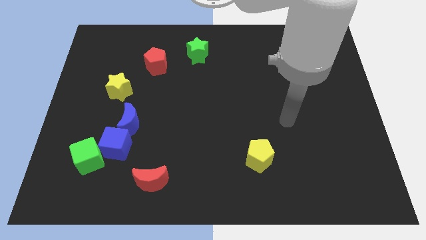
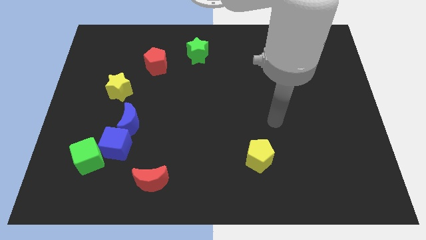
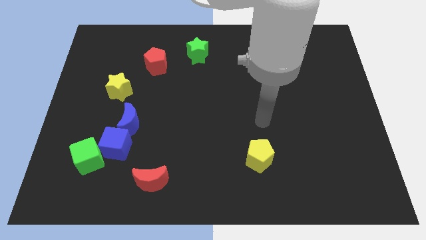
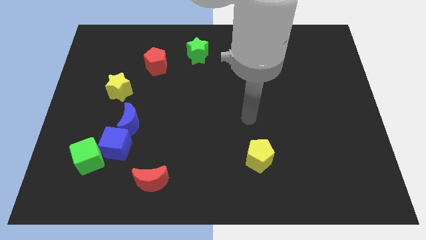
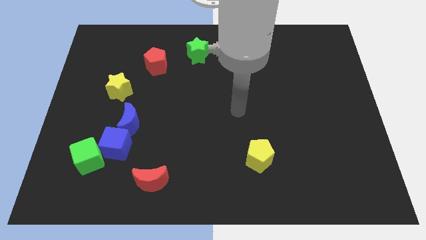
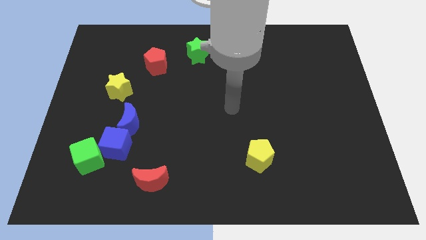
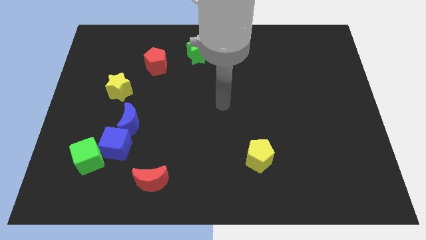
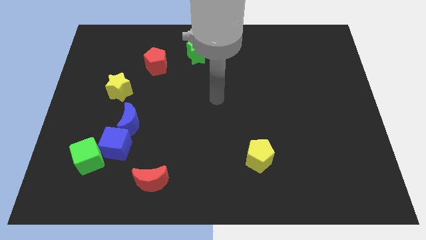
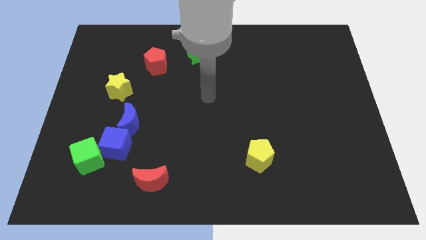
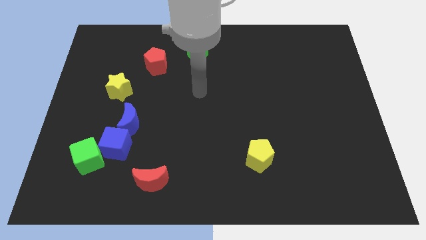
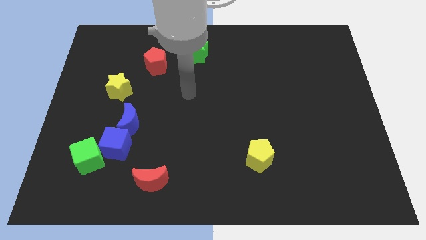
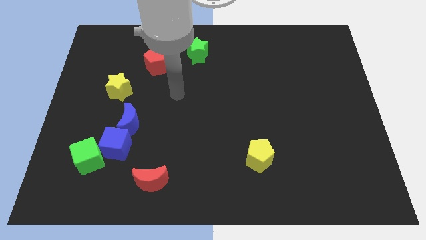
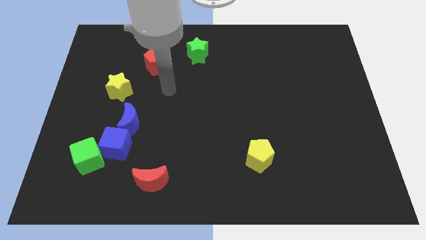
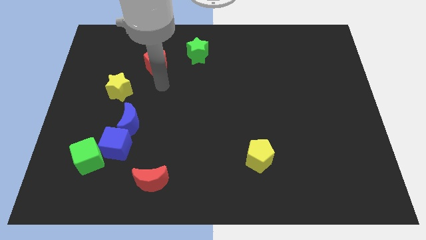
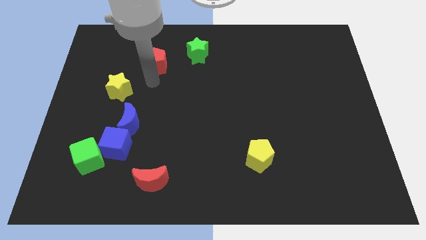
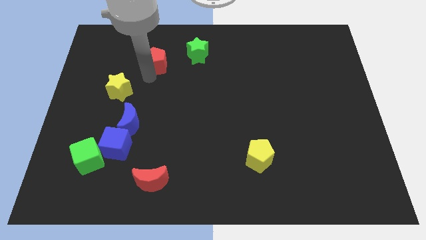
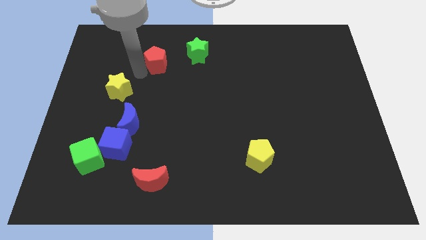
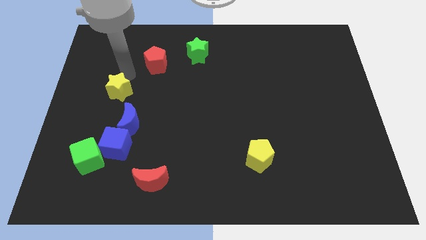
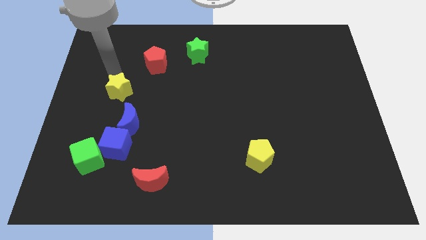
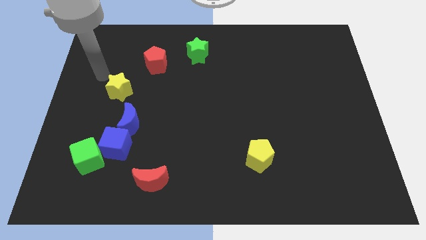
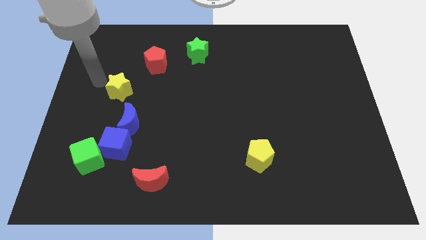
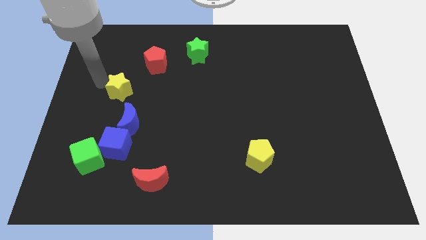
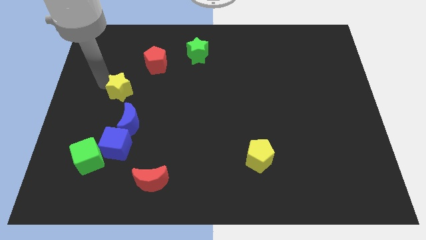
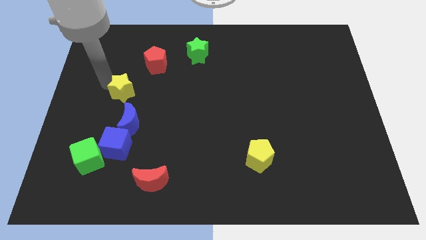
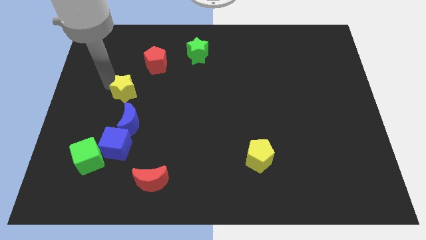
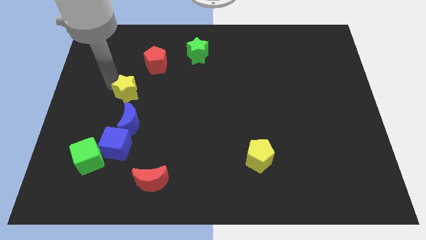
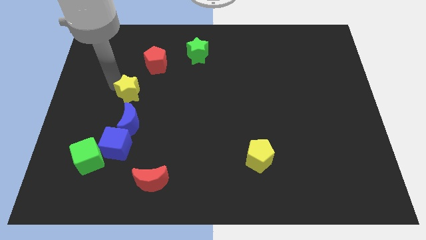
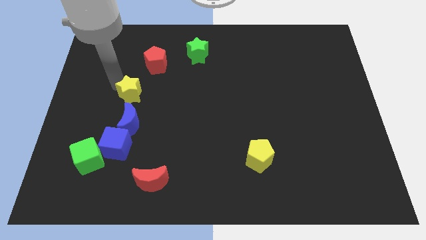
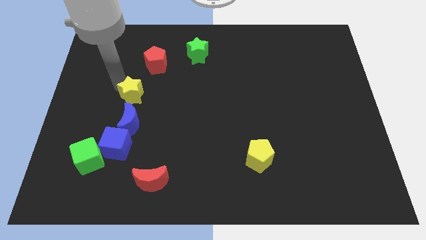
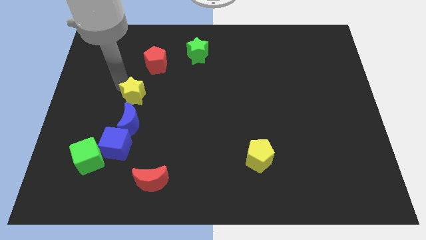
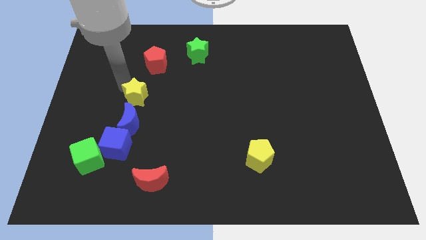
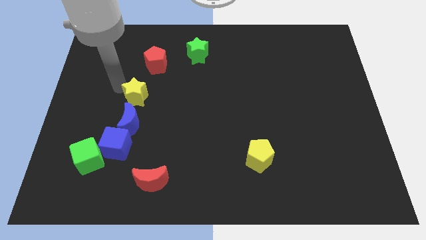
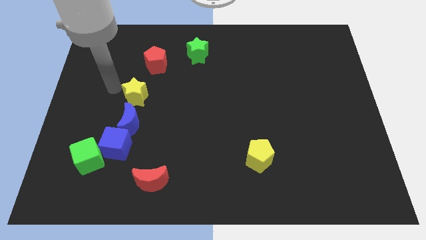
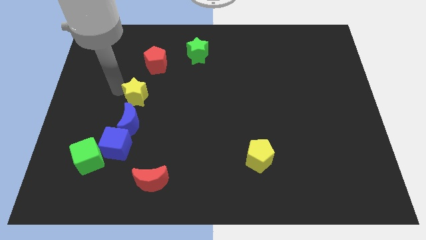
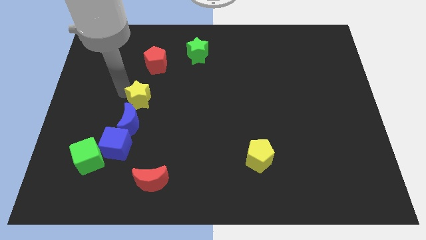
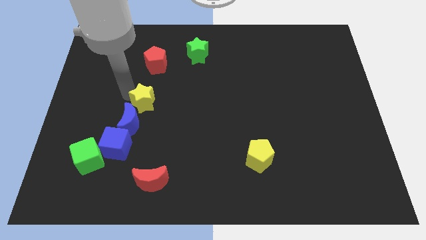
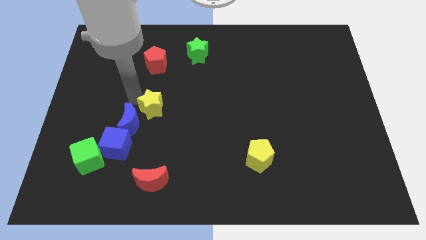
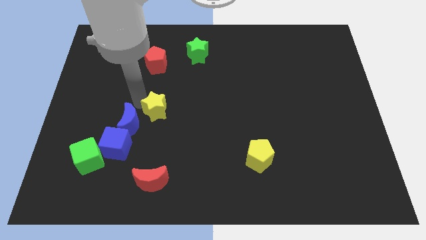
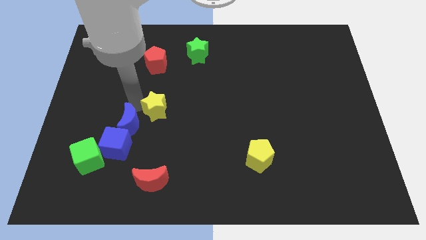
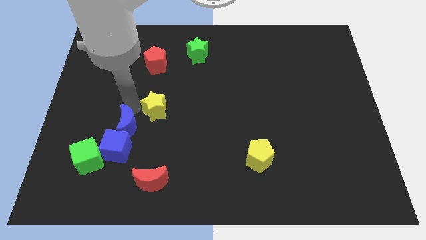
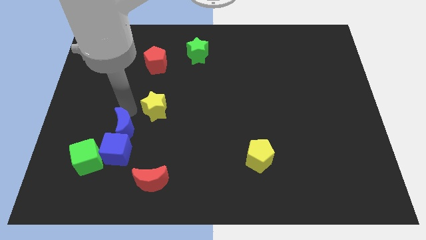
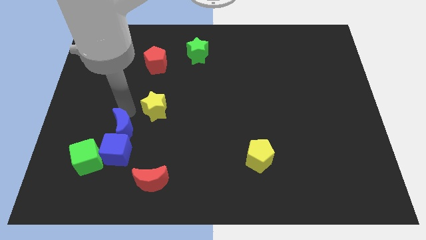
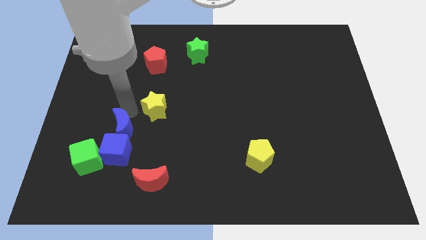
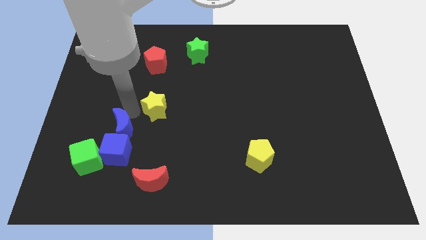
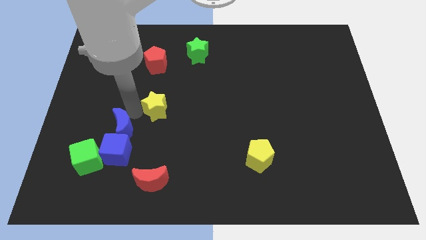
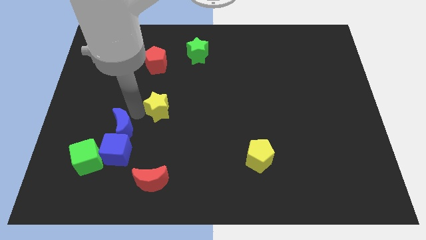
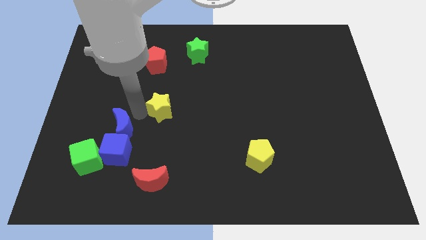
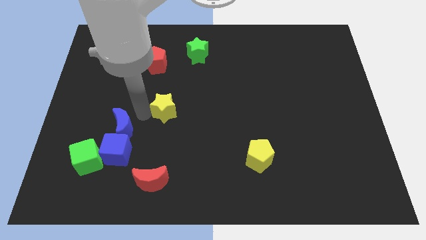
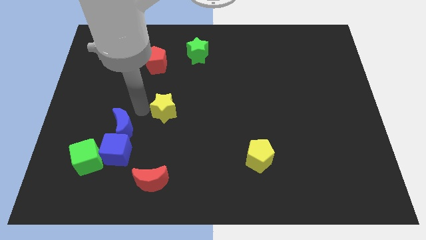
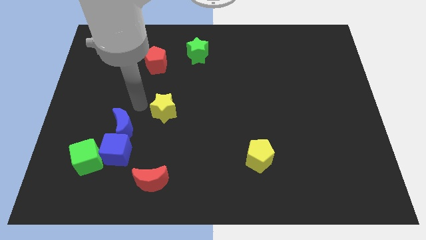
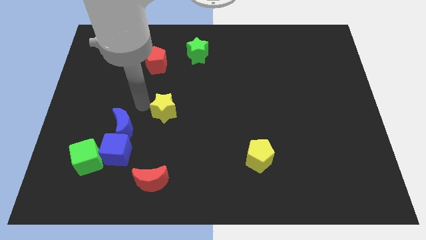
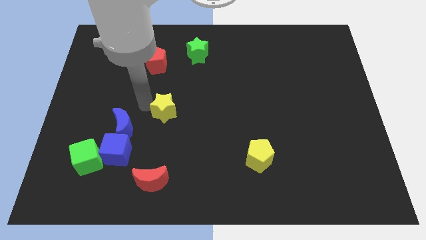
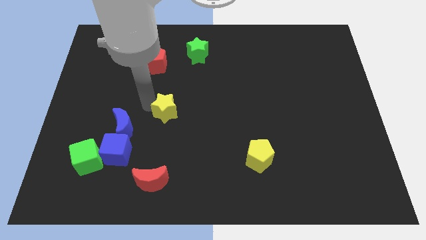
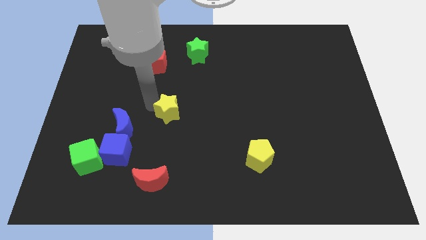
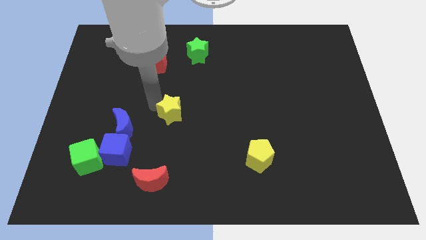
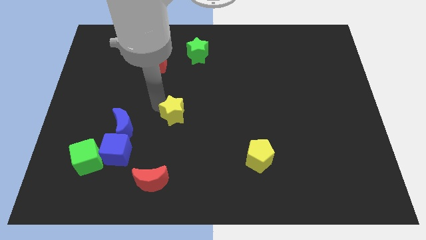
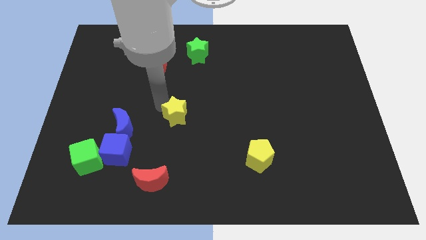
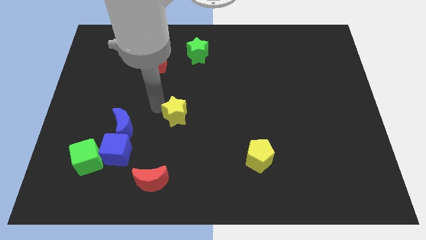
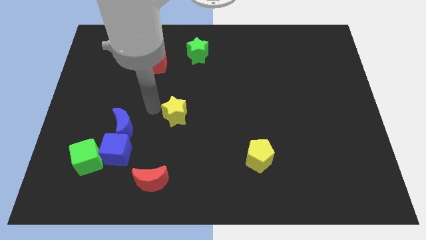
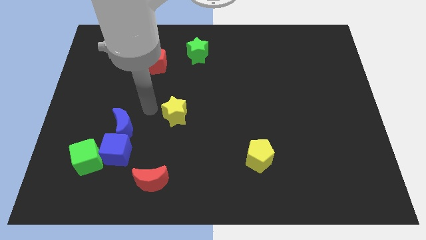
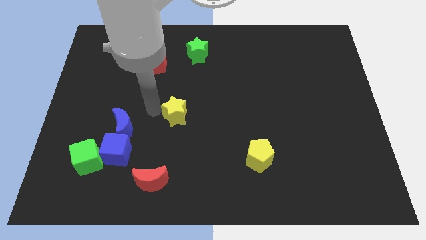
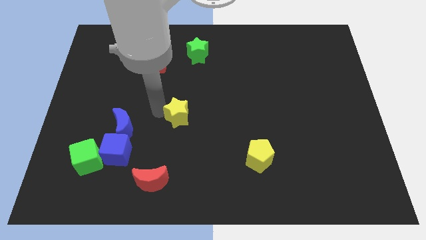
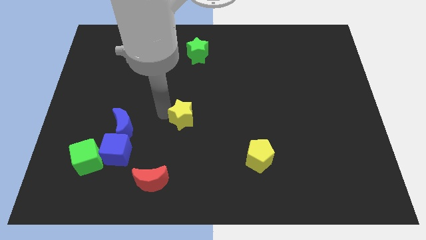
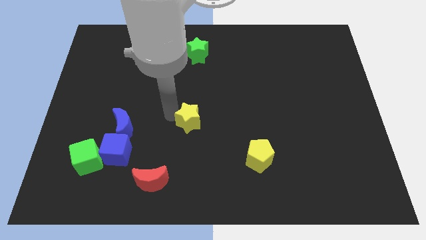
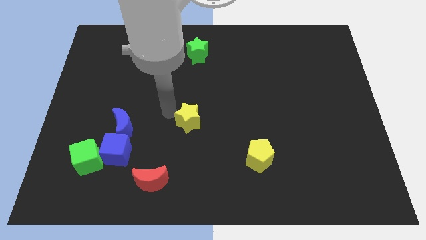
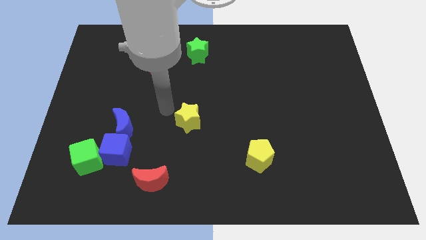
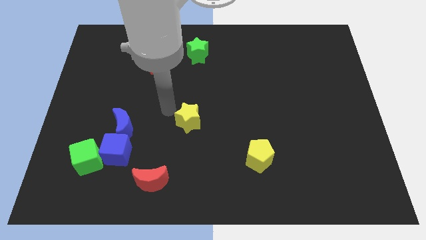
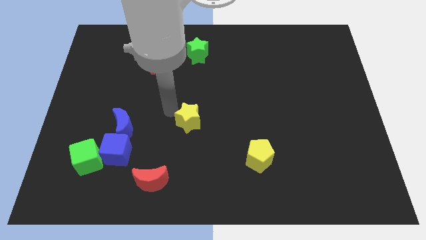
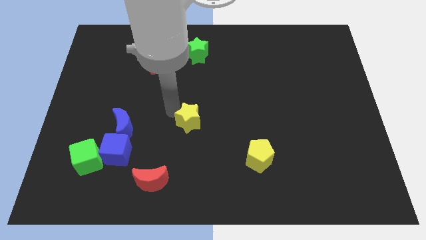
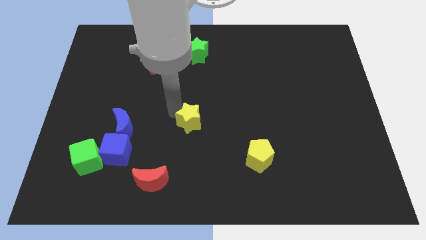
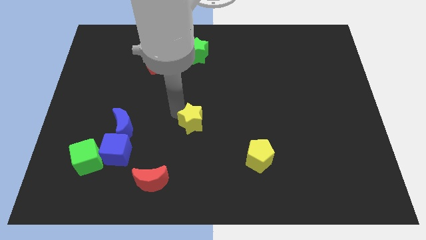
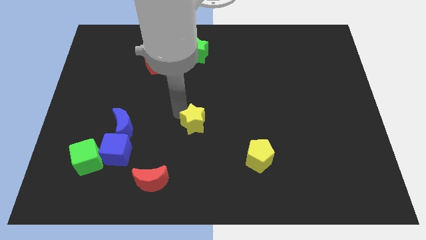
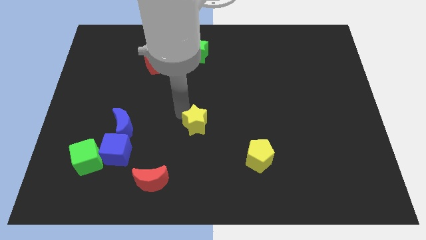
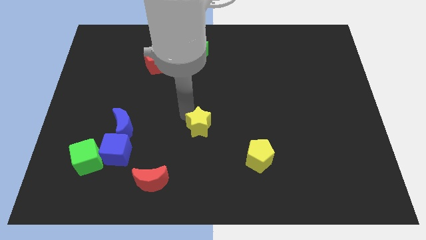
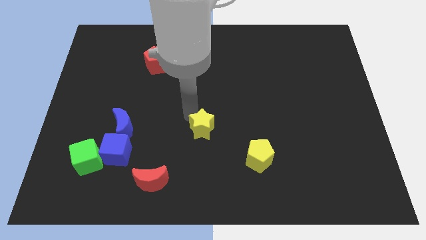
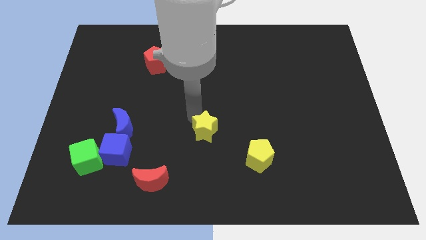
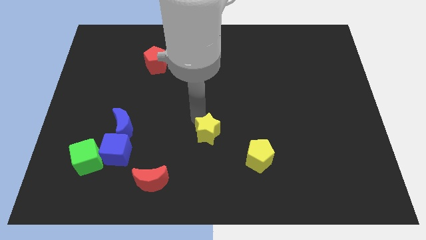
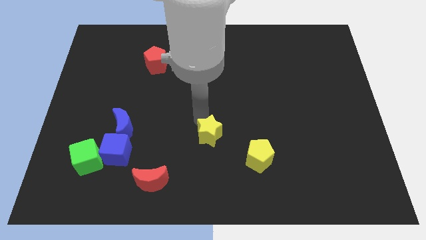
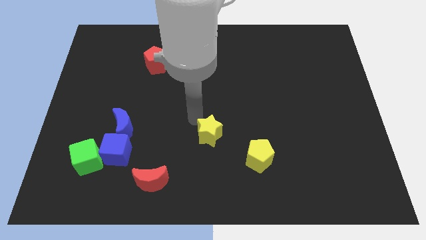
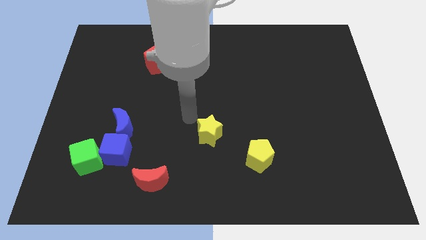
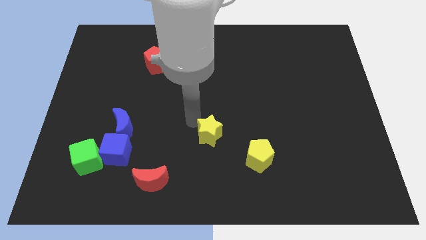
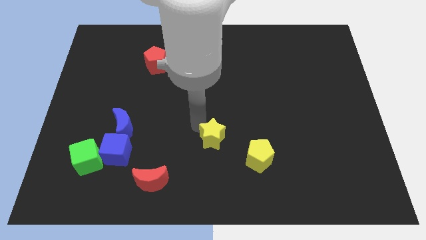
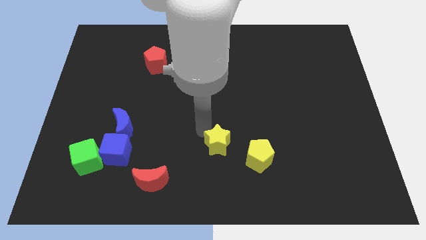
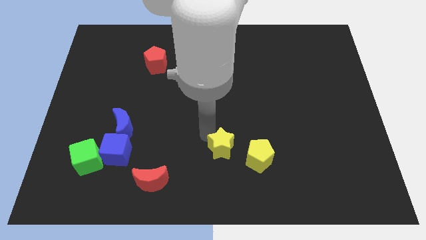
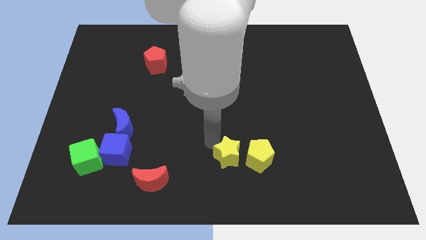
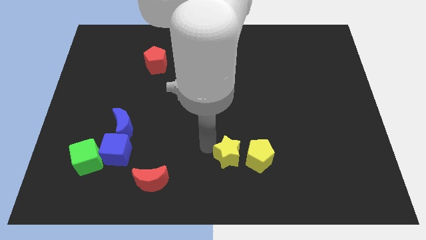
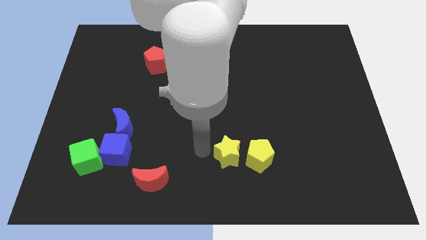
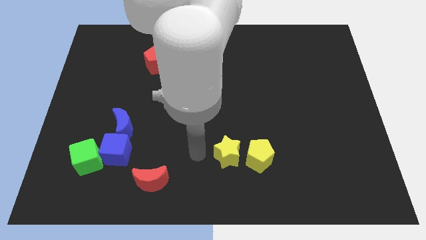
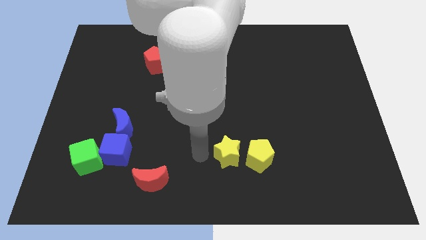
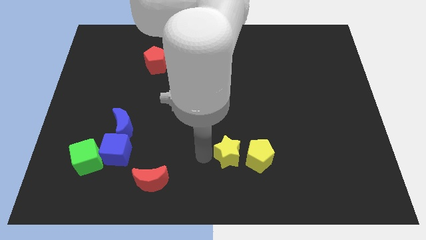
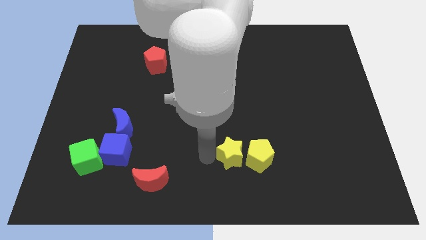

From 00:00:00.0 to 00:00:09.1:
move the yellow star close to the yellow pentagon
